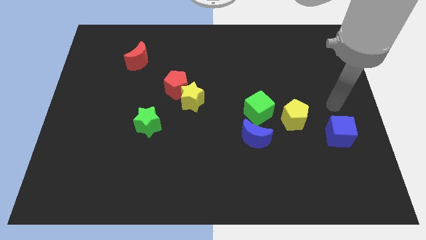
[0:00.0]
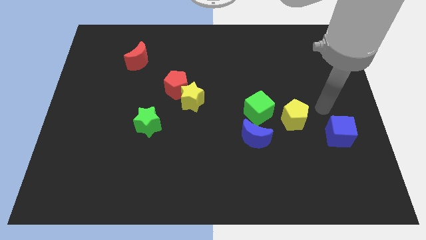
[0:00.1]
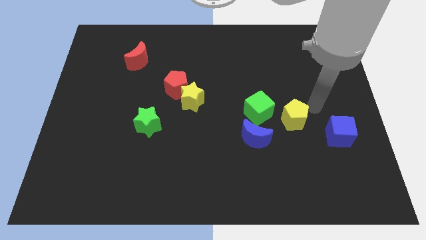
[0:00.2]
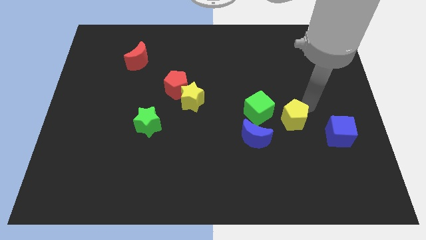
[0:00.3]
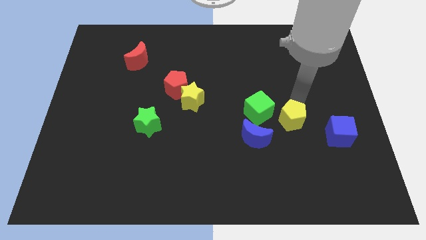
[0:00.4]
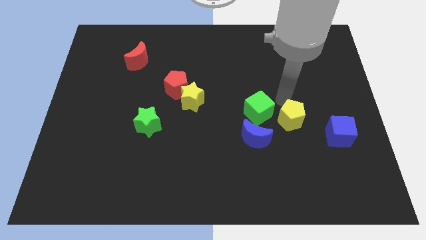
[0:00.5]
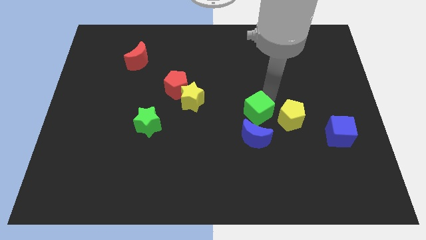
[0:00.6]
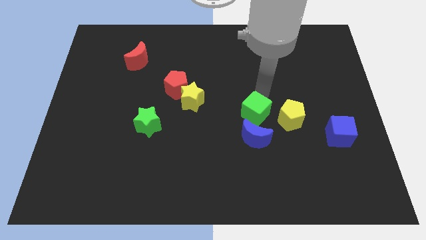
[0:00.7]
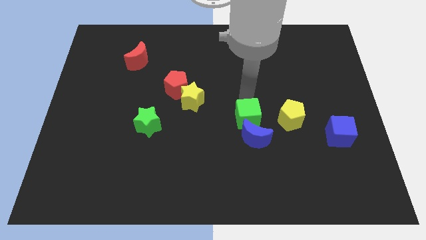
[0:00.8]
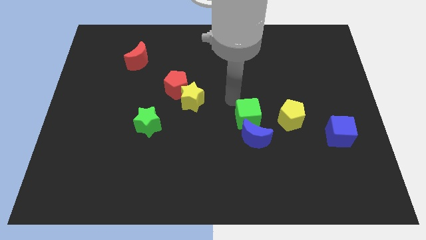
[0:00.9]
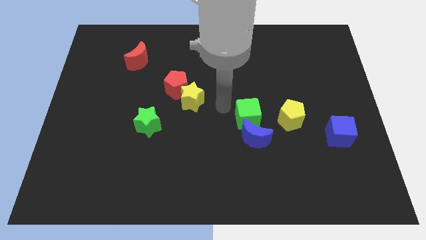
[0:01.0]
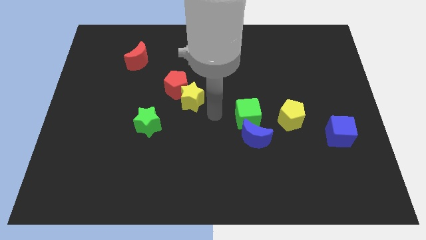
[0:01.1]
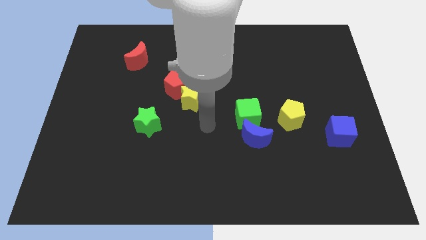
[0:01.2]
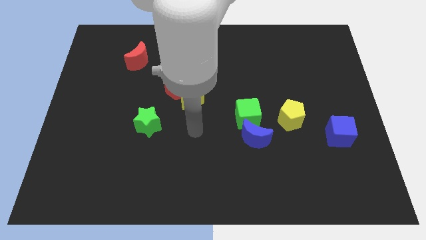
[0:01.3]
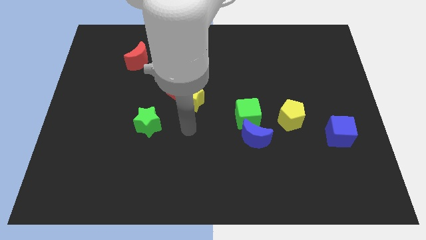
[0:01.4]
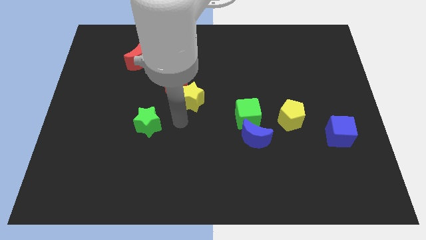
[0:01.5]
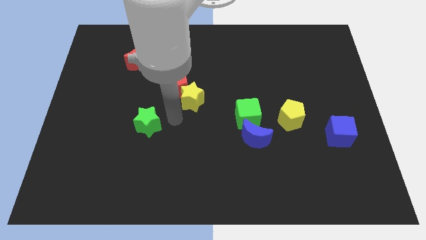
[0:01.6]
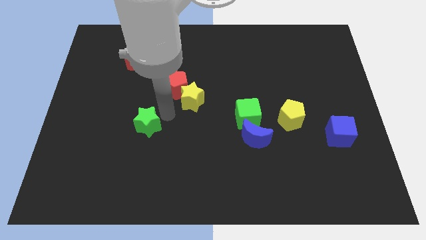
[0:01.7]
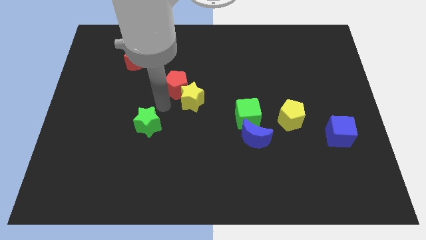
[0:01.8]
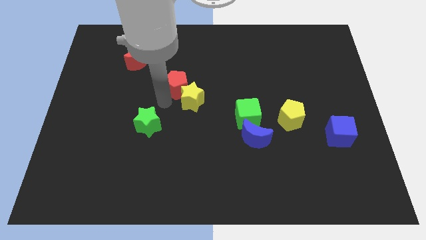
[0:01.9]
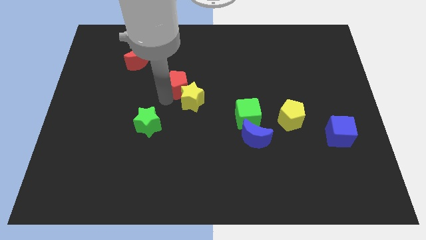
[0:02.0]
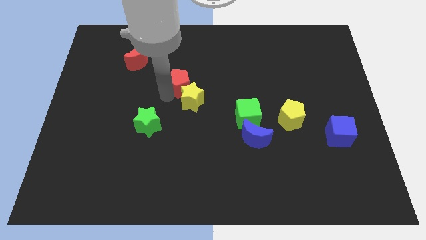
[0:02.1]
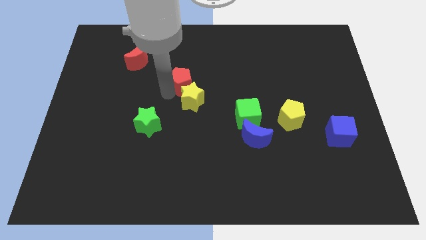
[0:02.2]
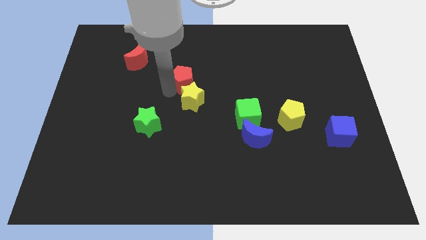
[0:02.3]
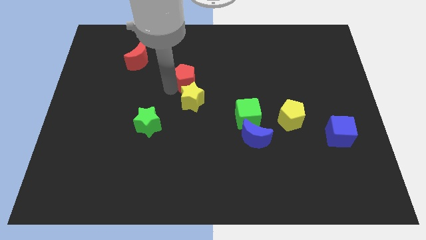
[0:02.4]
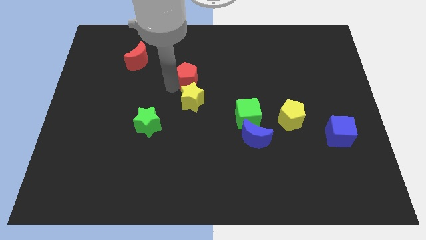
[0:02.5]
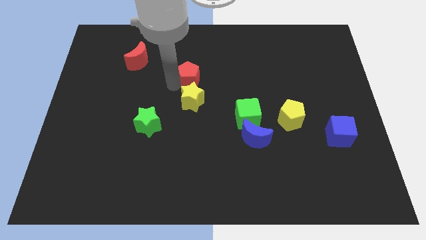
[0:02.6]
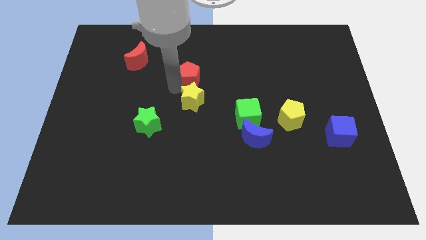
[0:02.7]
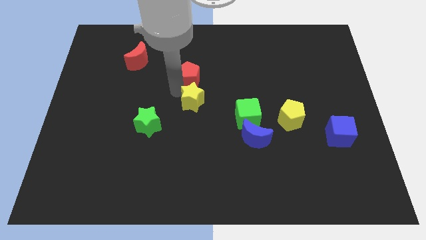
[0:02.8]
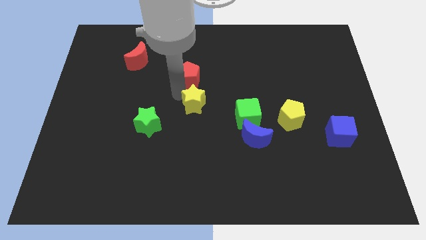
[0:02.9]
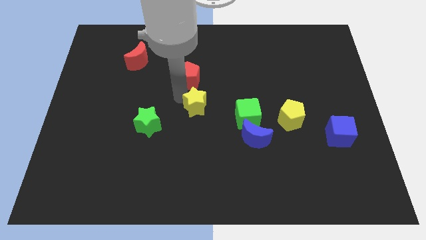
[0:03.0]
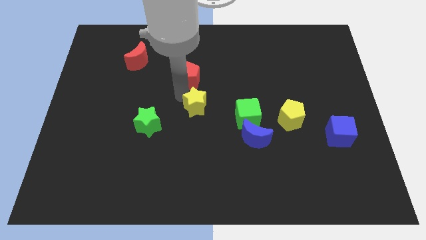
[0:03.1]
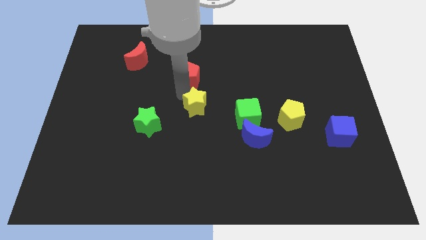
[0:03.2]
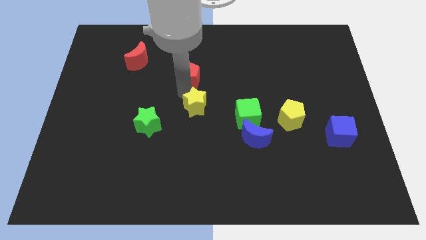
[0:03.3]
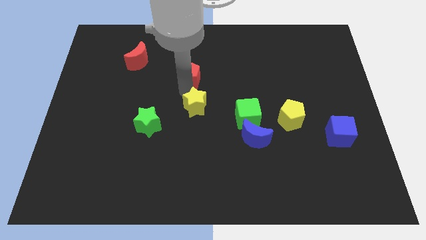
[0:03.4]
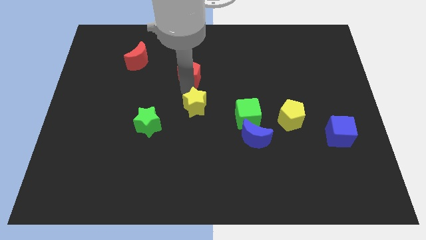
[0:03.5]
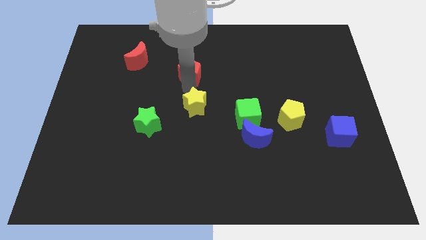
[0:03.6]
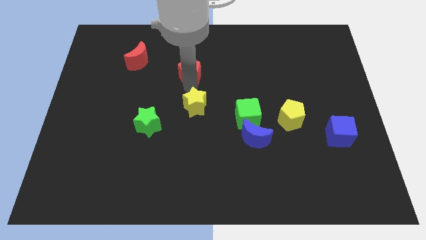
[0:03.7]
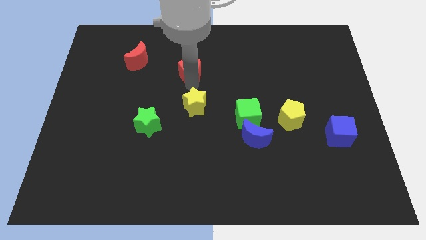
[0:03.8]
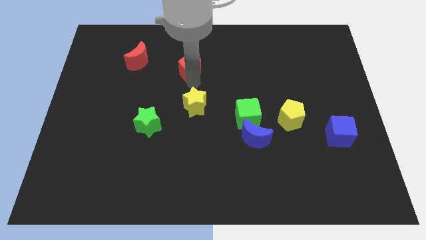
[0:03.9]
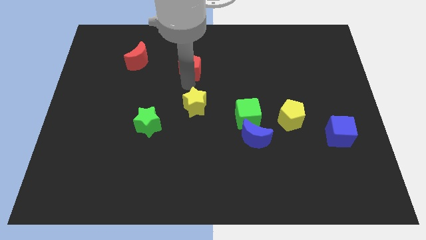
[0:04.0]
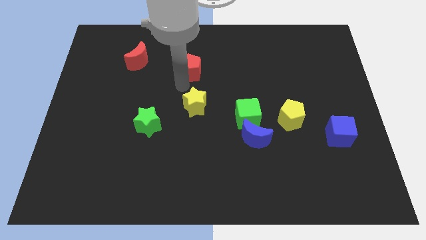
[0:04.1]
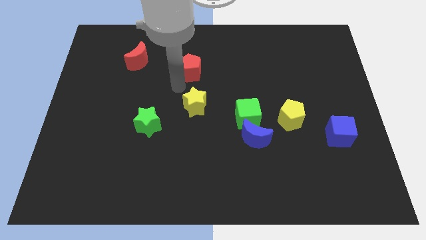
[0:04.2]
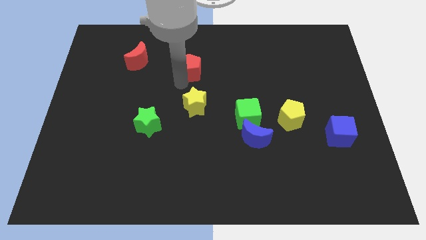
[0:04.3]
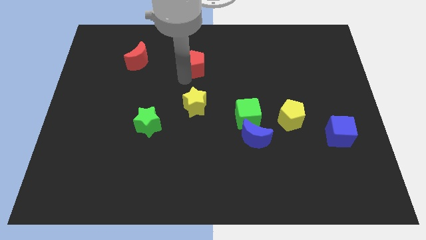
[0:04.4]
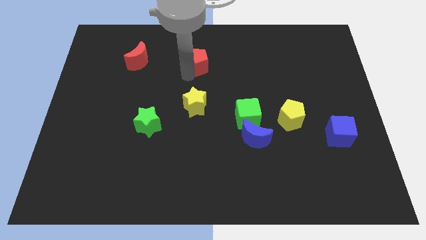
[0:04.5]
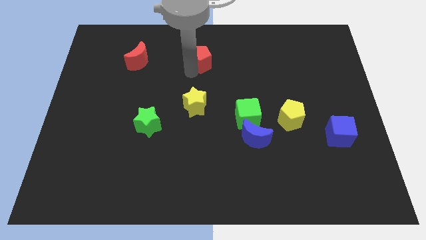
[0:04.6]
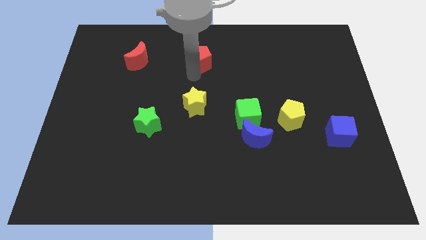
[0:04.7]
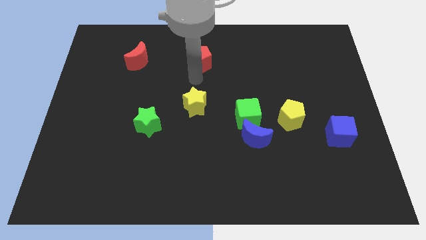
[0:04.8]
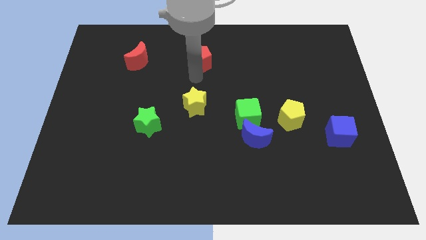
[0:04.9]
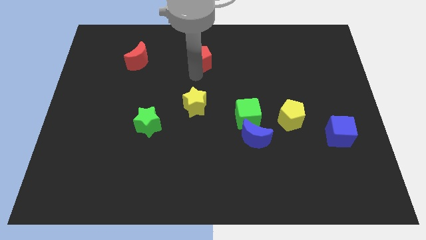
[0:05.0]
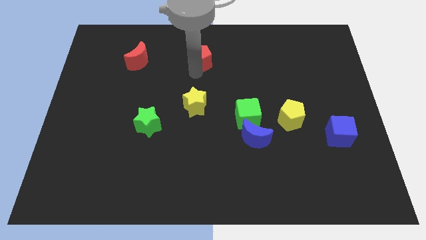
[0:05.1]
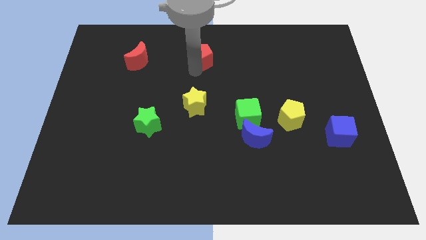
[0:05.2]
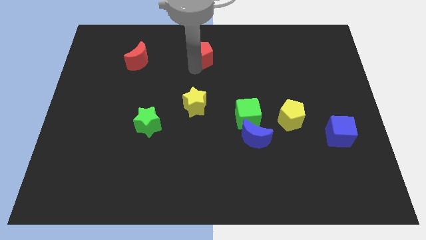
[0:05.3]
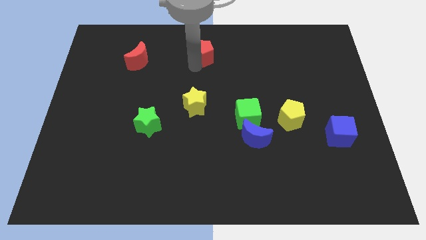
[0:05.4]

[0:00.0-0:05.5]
push the red pentagon to the towards your base

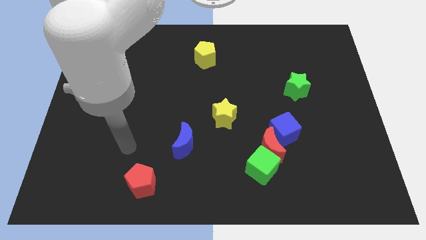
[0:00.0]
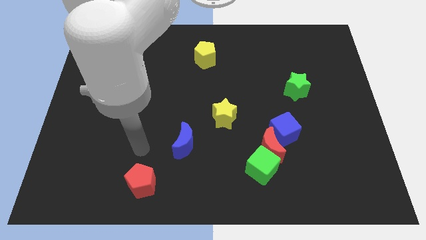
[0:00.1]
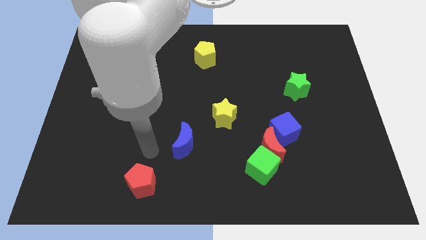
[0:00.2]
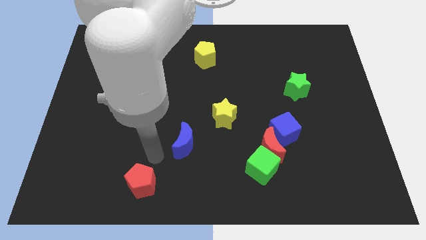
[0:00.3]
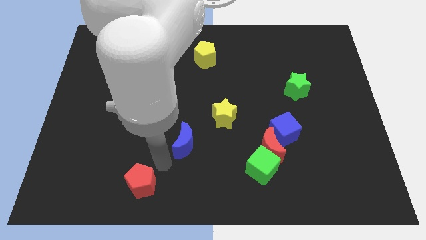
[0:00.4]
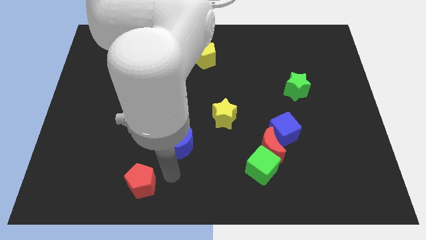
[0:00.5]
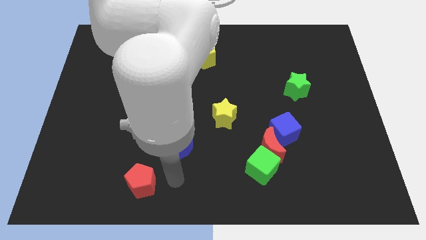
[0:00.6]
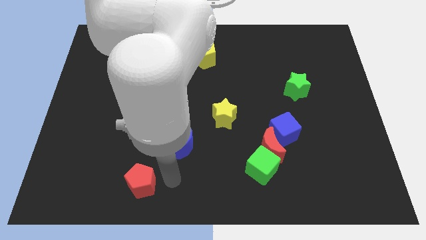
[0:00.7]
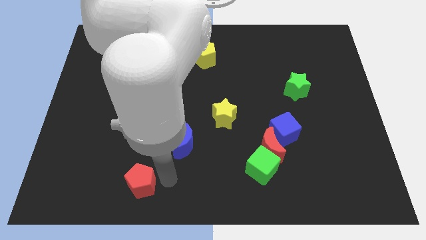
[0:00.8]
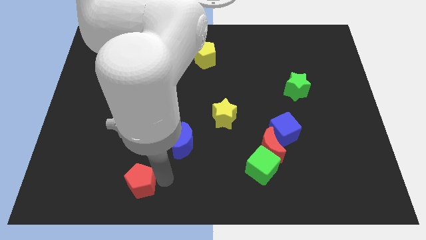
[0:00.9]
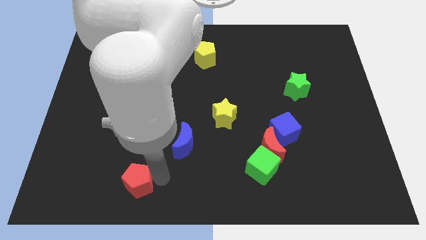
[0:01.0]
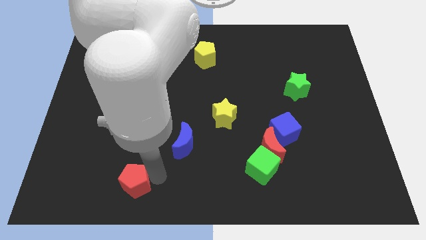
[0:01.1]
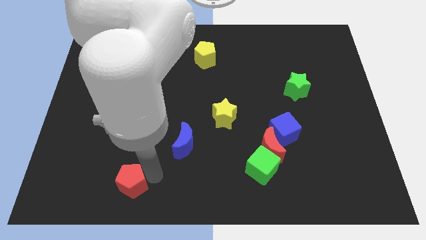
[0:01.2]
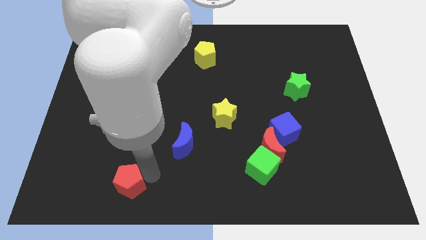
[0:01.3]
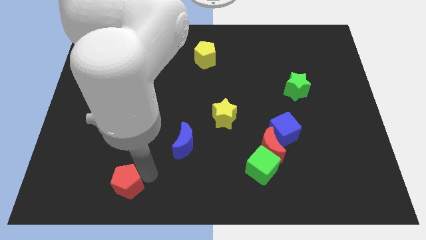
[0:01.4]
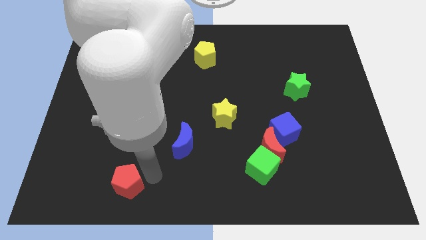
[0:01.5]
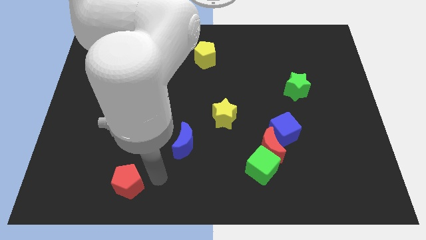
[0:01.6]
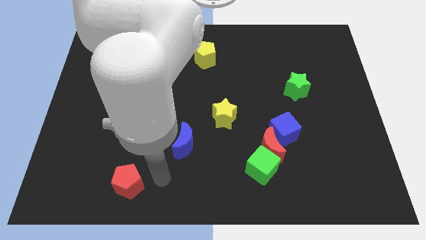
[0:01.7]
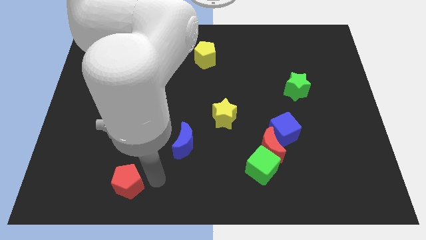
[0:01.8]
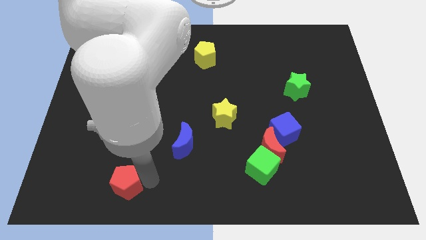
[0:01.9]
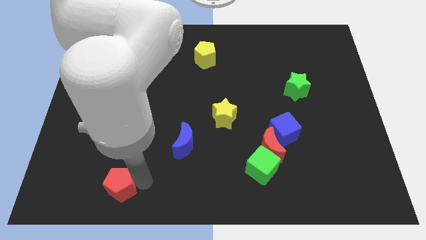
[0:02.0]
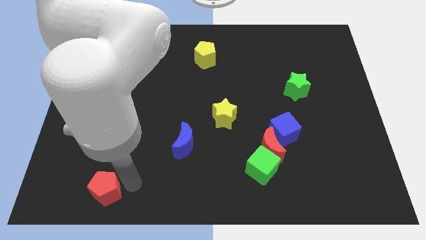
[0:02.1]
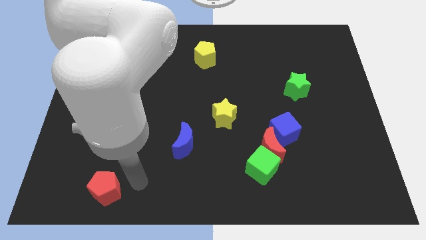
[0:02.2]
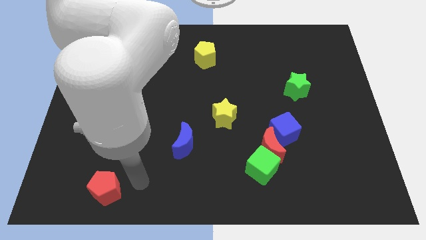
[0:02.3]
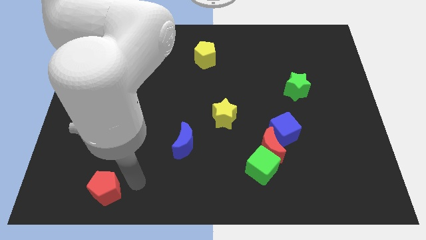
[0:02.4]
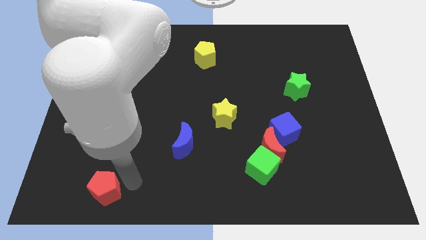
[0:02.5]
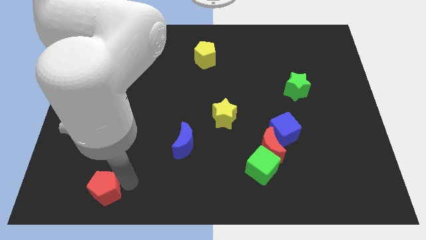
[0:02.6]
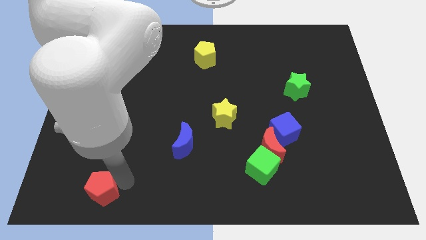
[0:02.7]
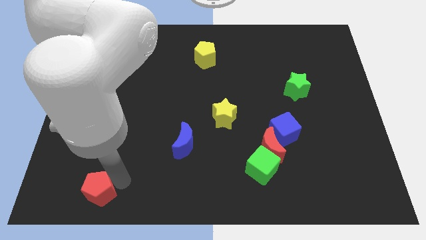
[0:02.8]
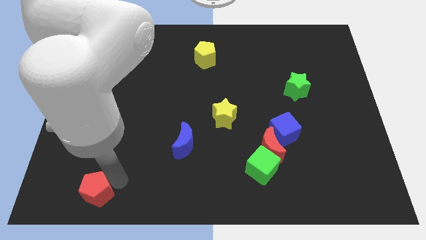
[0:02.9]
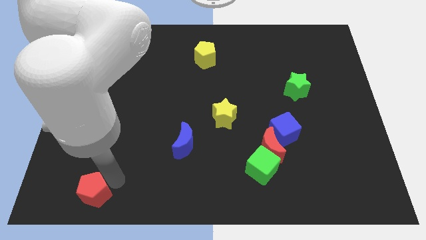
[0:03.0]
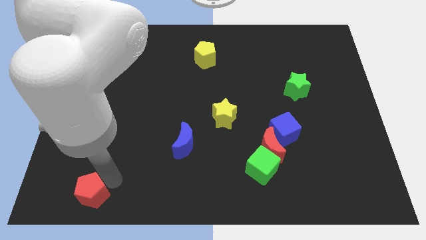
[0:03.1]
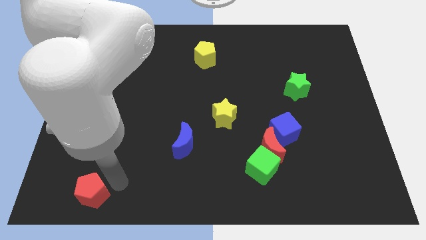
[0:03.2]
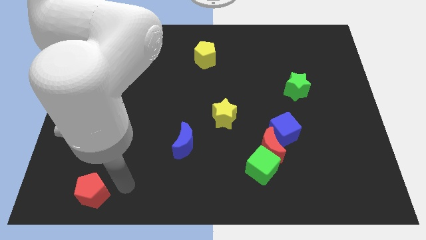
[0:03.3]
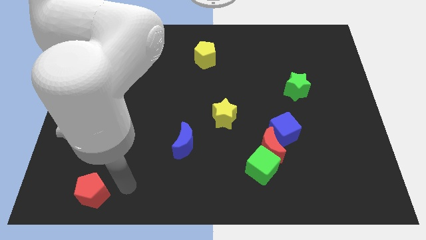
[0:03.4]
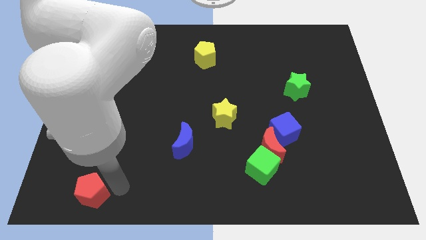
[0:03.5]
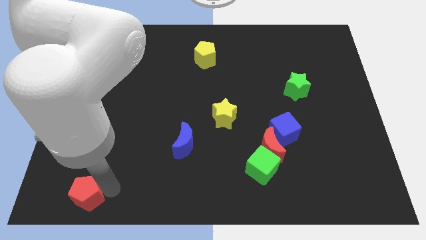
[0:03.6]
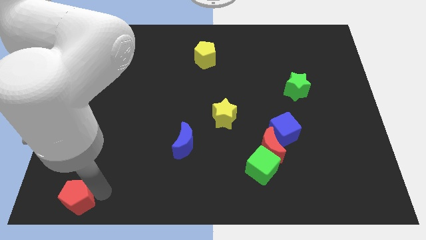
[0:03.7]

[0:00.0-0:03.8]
move the red pentagon to the bottom left corner
